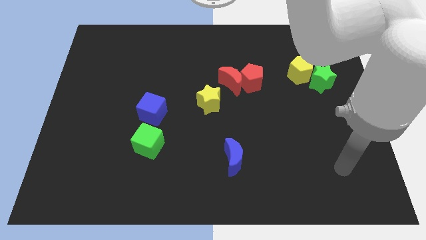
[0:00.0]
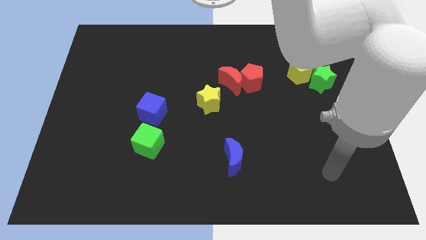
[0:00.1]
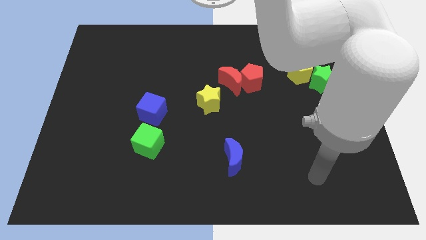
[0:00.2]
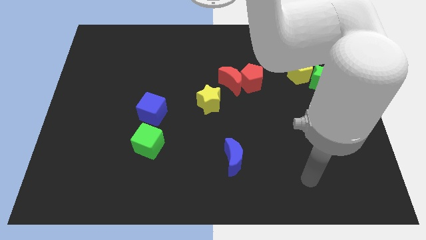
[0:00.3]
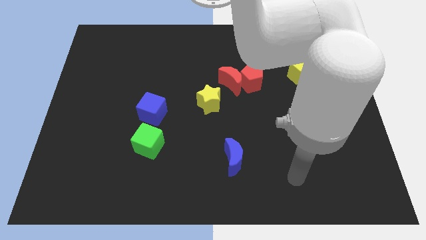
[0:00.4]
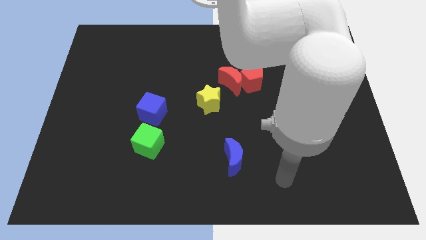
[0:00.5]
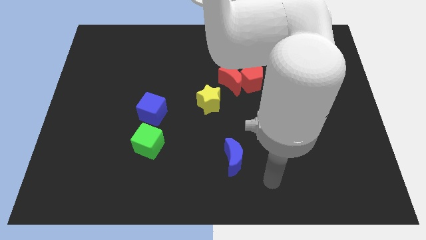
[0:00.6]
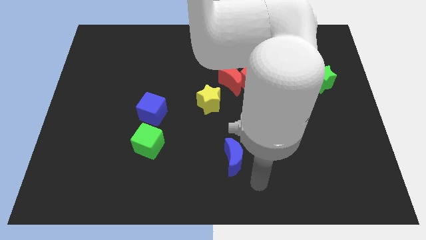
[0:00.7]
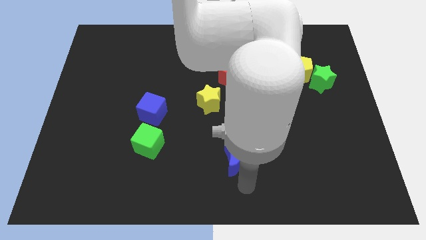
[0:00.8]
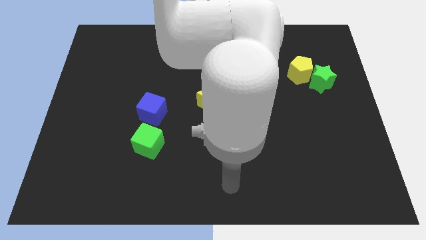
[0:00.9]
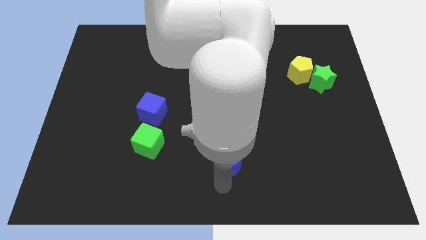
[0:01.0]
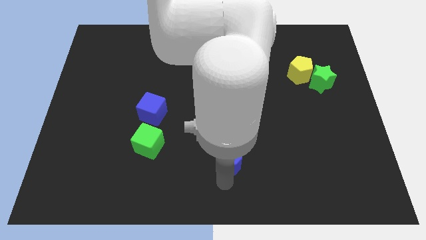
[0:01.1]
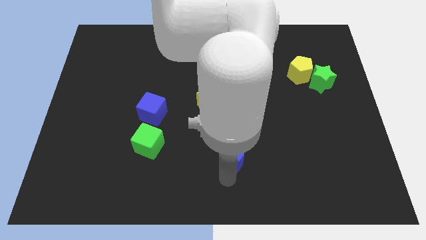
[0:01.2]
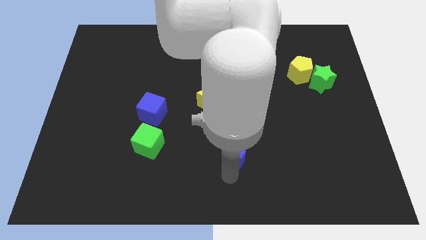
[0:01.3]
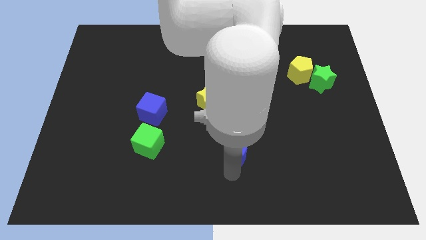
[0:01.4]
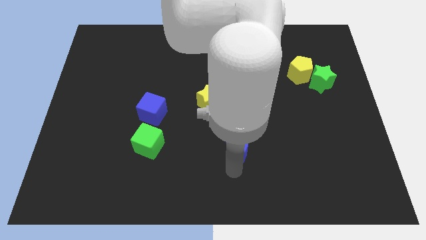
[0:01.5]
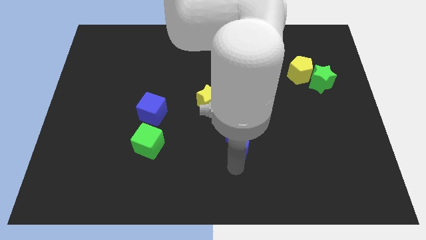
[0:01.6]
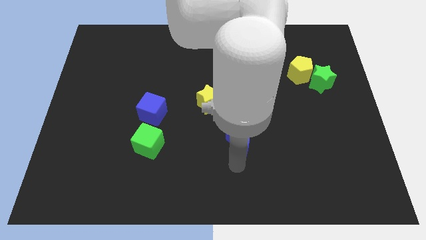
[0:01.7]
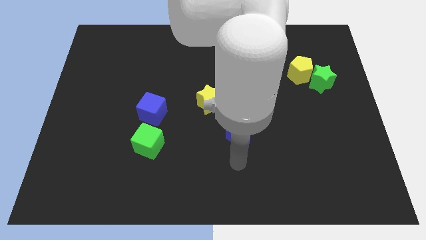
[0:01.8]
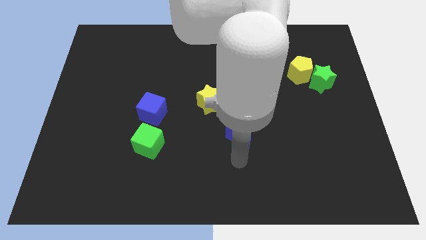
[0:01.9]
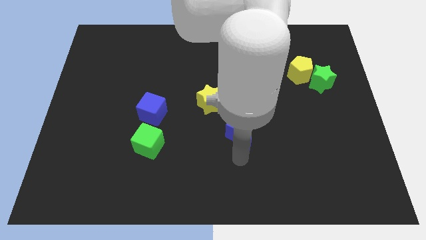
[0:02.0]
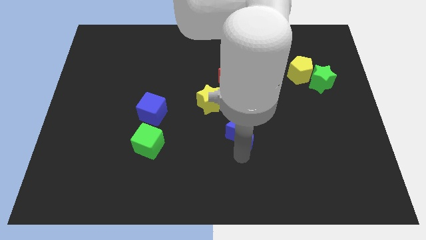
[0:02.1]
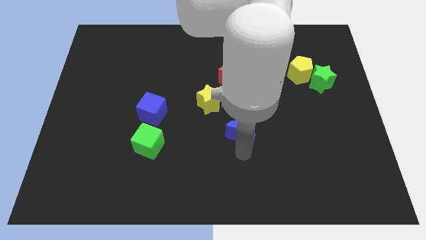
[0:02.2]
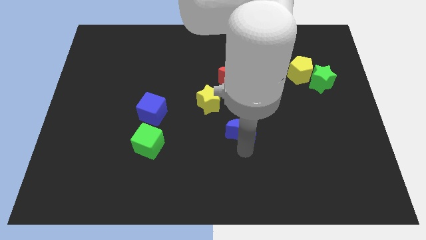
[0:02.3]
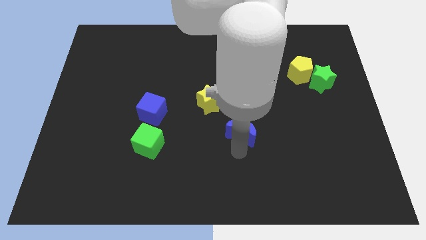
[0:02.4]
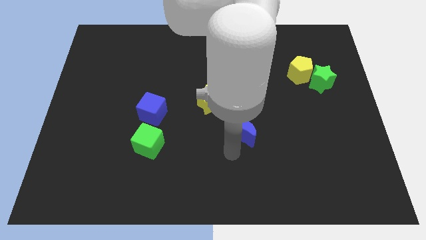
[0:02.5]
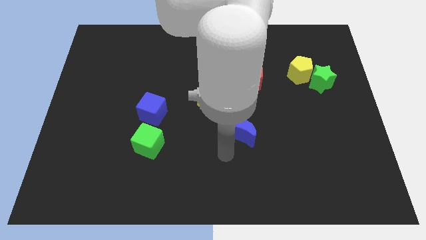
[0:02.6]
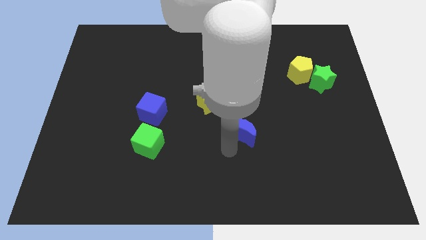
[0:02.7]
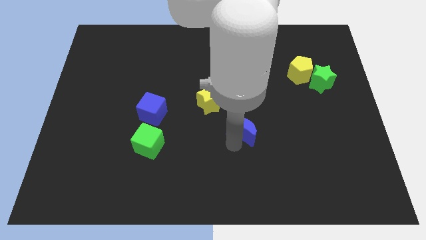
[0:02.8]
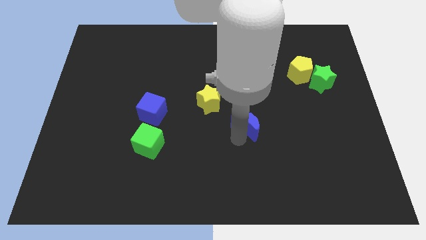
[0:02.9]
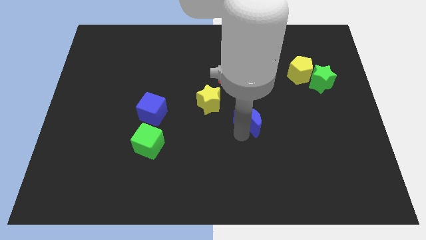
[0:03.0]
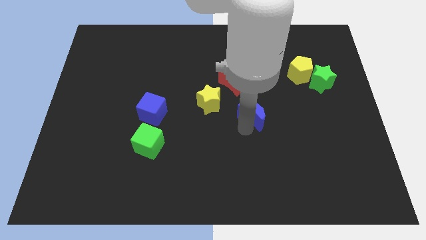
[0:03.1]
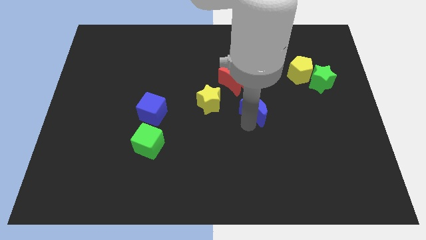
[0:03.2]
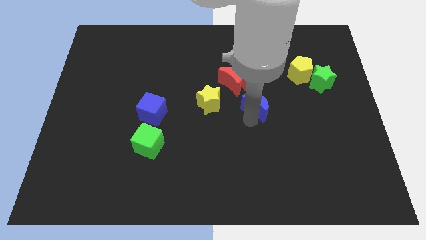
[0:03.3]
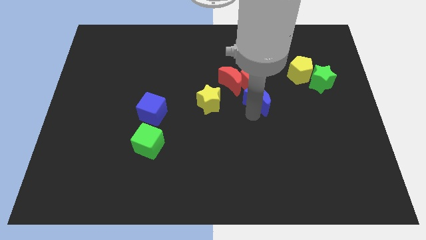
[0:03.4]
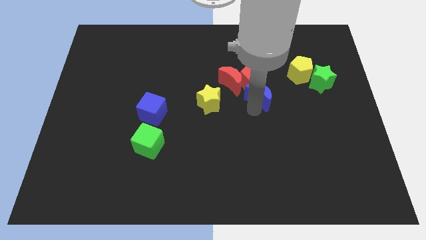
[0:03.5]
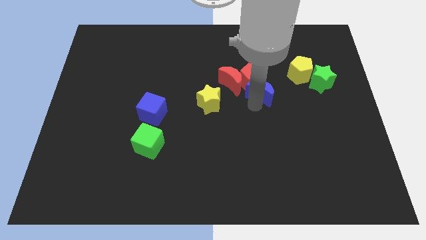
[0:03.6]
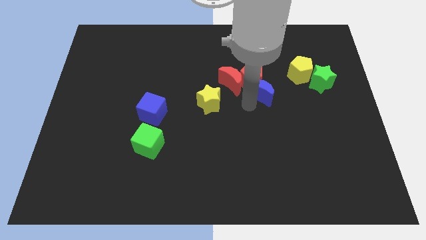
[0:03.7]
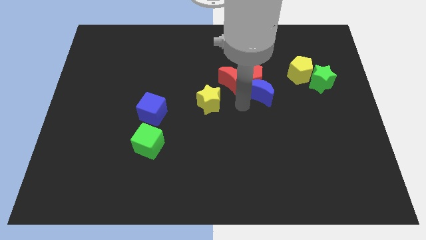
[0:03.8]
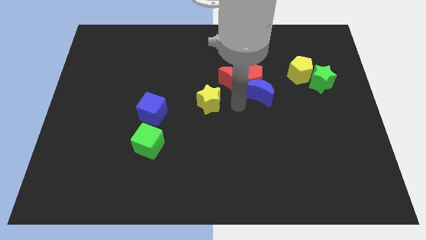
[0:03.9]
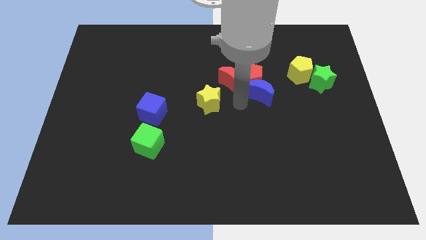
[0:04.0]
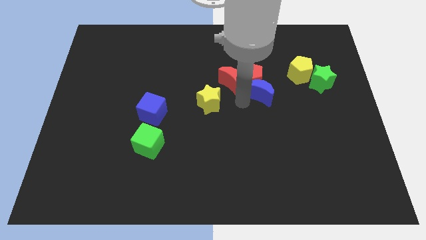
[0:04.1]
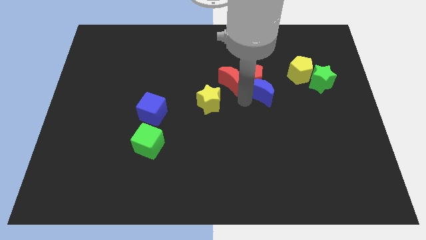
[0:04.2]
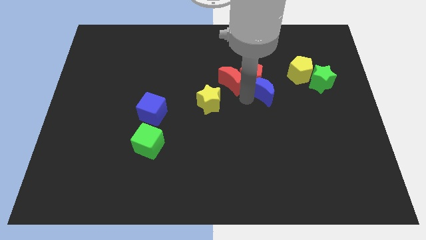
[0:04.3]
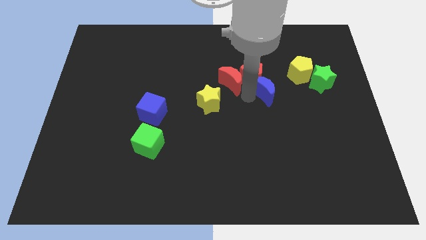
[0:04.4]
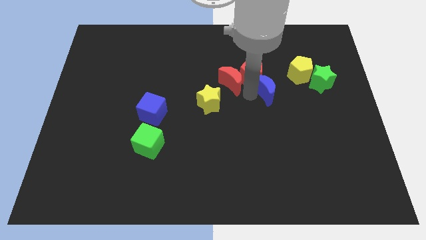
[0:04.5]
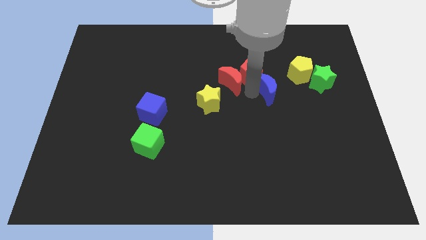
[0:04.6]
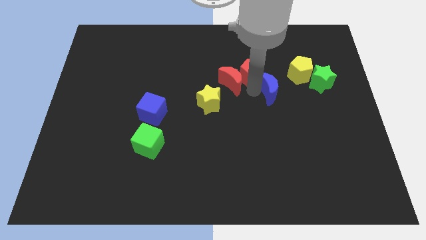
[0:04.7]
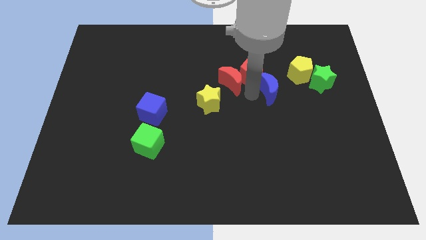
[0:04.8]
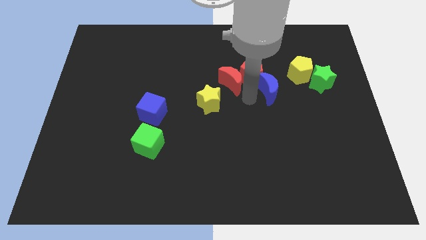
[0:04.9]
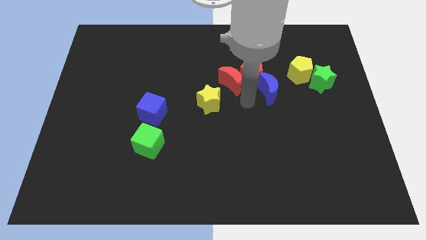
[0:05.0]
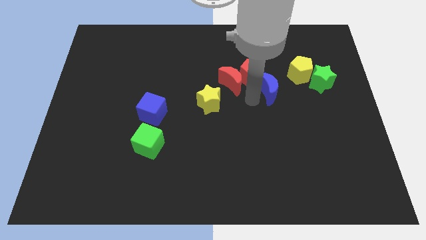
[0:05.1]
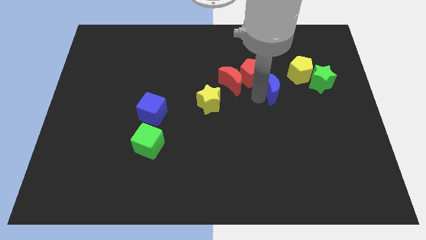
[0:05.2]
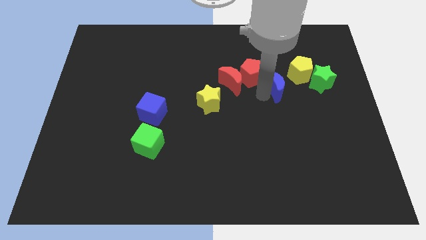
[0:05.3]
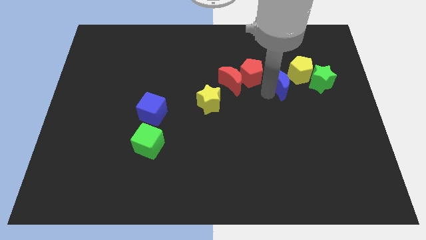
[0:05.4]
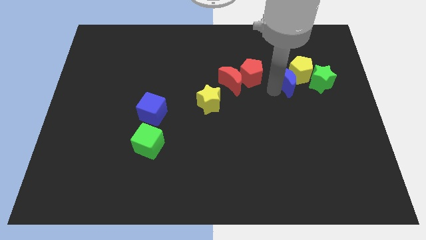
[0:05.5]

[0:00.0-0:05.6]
slide the blue moon towards the yellow pentagon

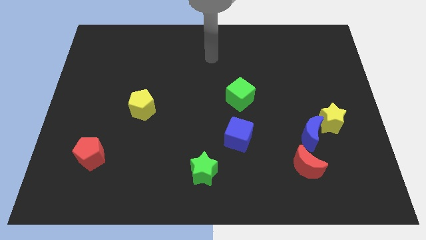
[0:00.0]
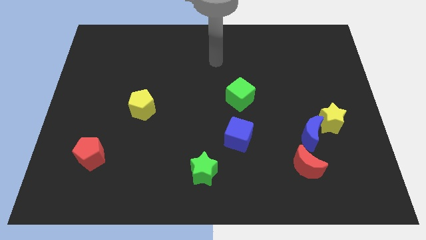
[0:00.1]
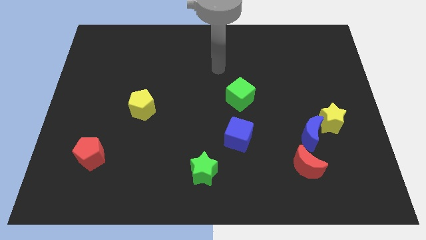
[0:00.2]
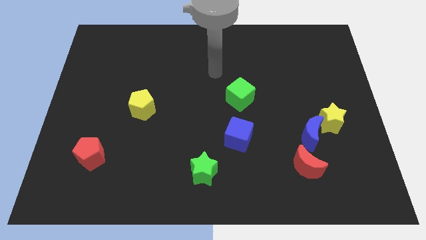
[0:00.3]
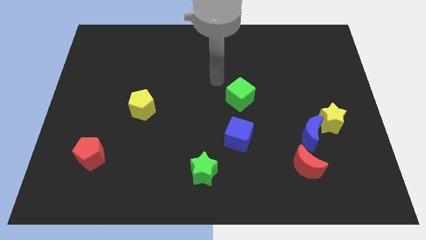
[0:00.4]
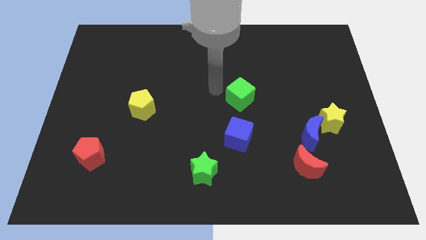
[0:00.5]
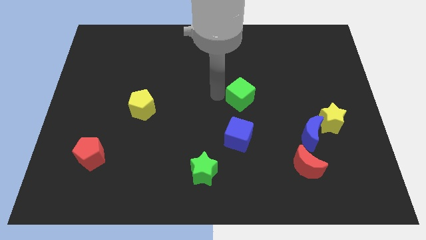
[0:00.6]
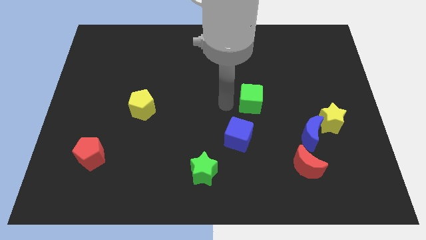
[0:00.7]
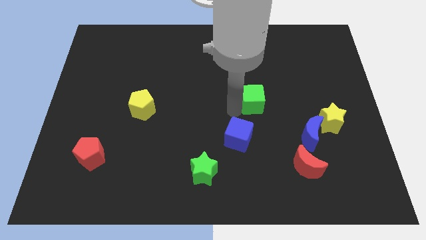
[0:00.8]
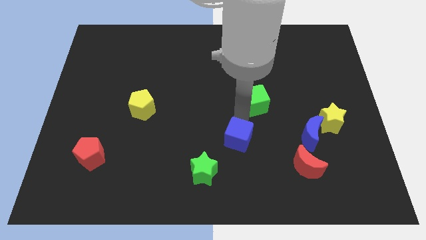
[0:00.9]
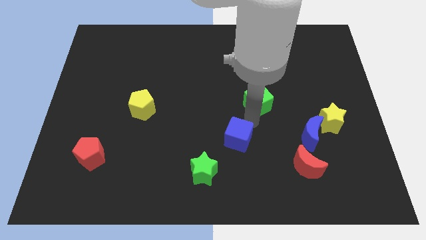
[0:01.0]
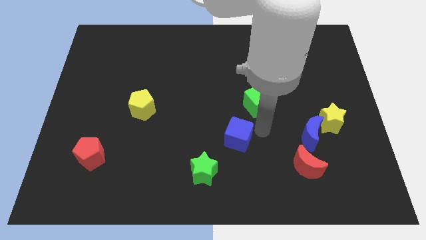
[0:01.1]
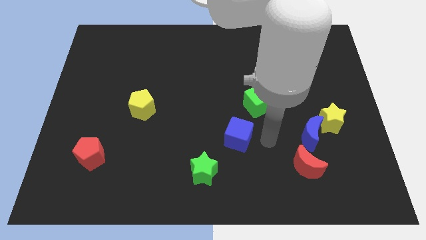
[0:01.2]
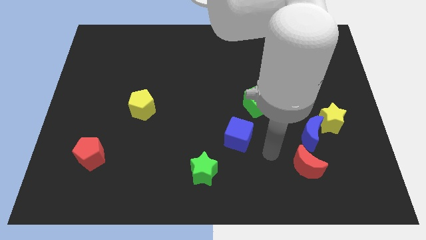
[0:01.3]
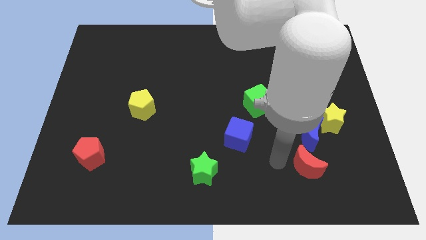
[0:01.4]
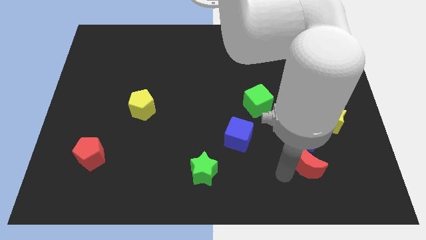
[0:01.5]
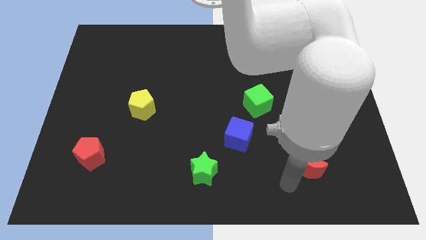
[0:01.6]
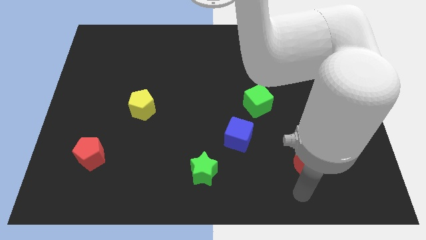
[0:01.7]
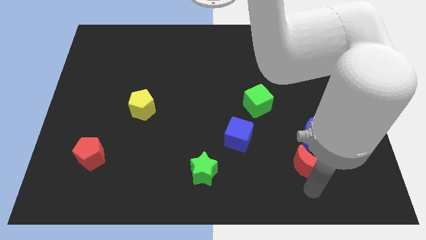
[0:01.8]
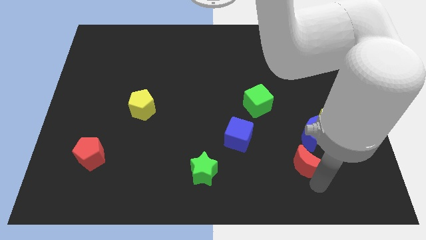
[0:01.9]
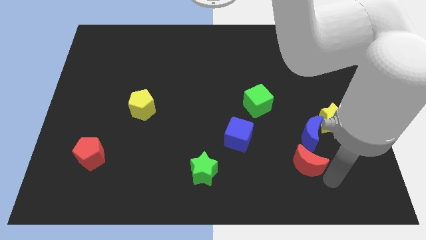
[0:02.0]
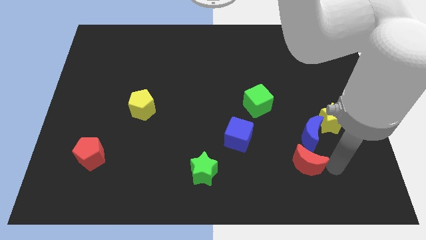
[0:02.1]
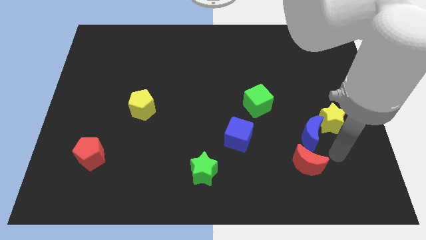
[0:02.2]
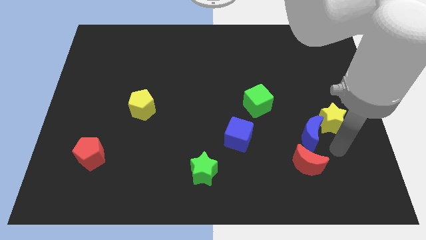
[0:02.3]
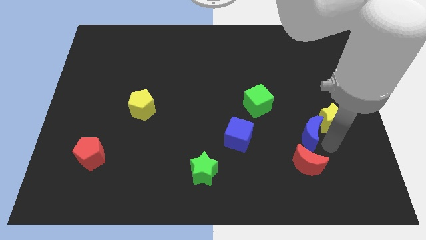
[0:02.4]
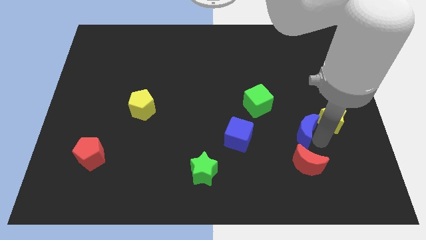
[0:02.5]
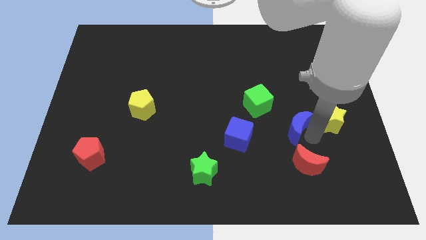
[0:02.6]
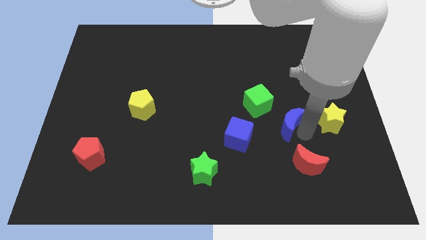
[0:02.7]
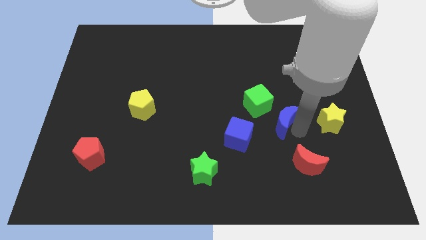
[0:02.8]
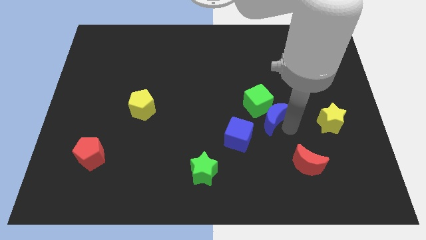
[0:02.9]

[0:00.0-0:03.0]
slide the blue moon towards the green cube
